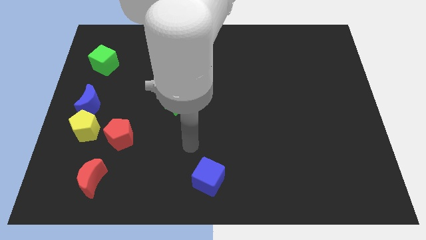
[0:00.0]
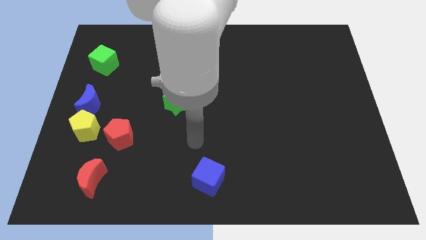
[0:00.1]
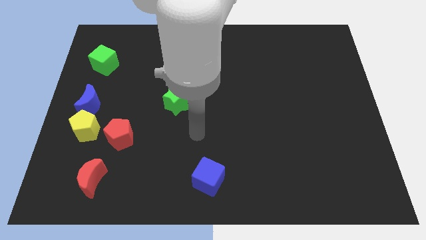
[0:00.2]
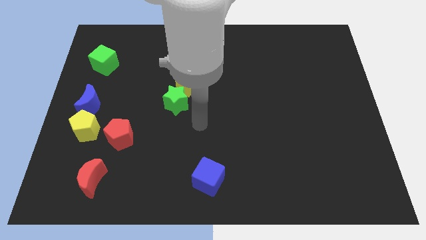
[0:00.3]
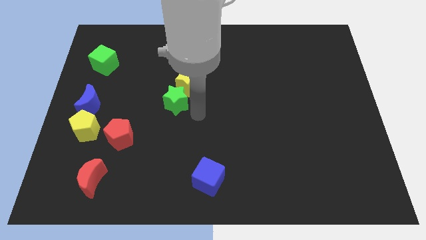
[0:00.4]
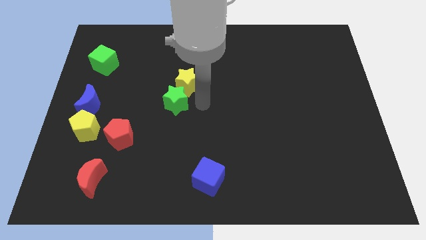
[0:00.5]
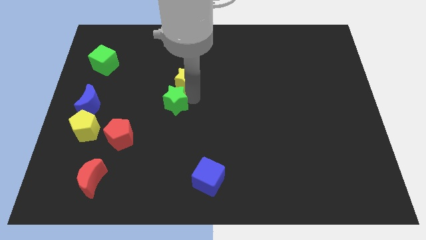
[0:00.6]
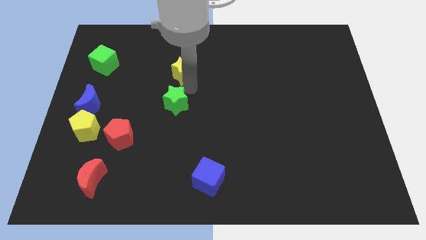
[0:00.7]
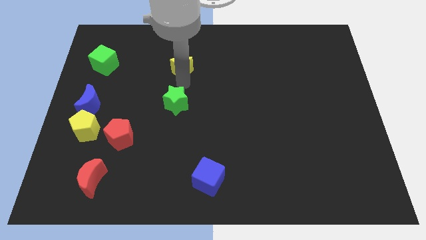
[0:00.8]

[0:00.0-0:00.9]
move the green star away from the yellow star

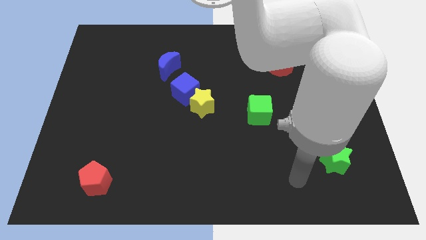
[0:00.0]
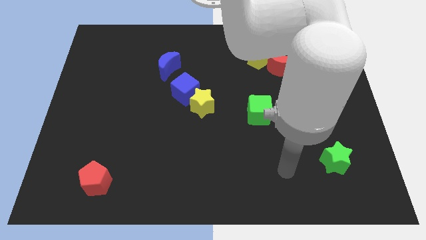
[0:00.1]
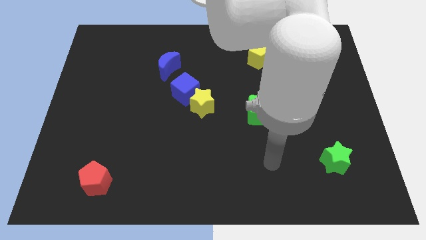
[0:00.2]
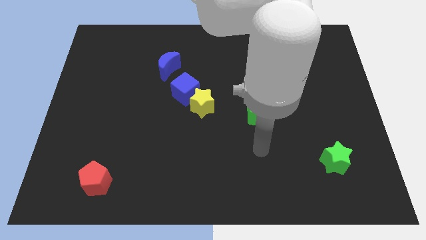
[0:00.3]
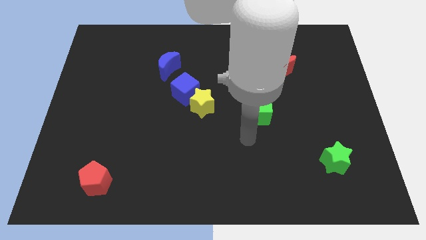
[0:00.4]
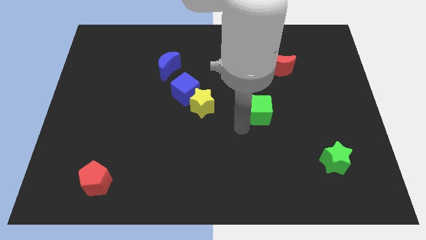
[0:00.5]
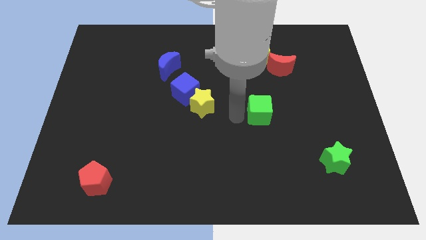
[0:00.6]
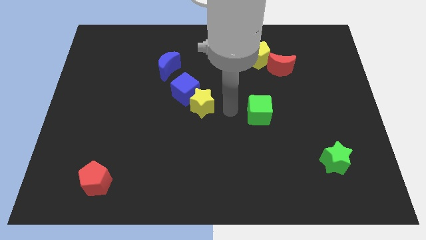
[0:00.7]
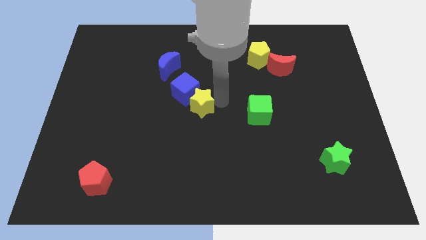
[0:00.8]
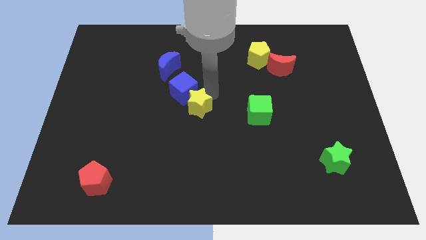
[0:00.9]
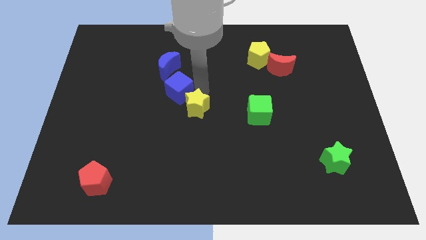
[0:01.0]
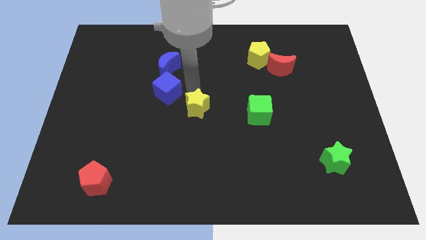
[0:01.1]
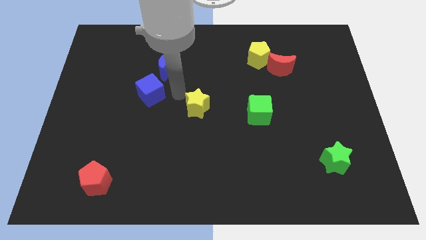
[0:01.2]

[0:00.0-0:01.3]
move the yellow star away from the blue cube

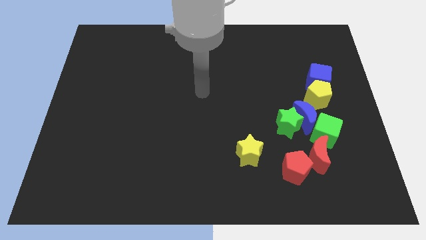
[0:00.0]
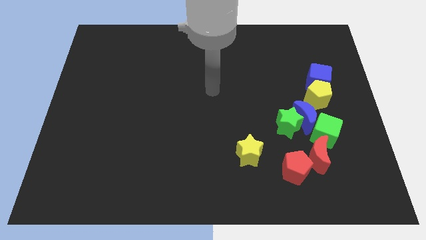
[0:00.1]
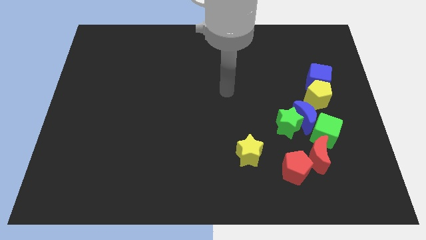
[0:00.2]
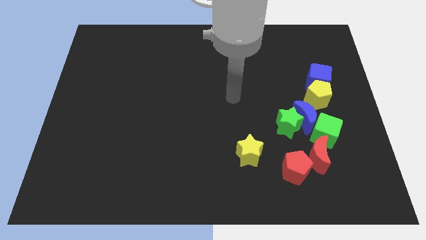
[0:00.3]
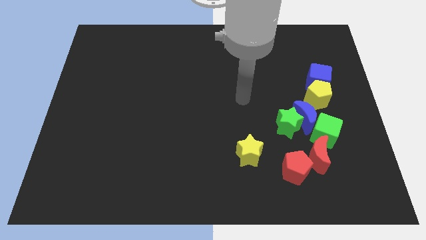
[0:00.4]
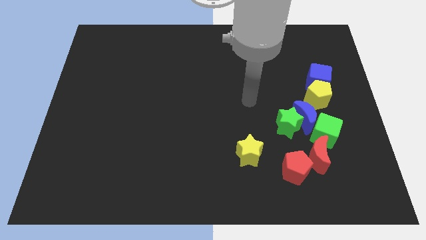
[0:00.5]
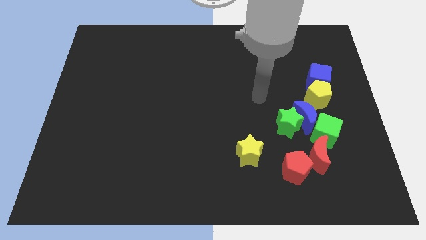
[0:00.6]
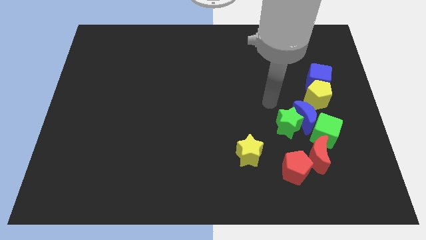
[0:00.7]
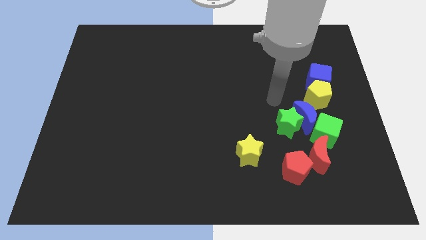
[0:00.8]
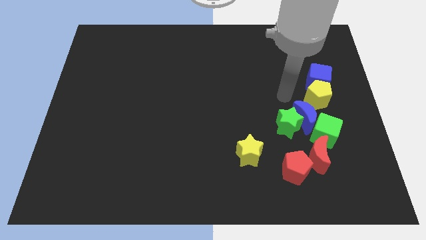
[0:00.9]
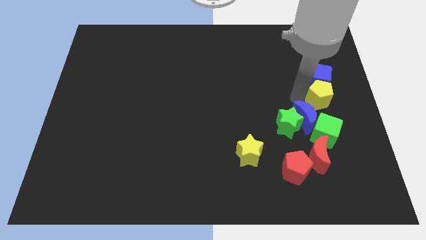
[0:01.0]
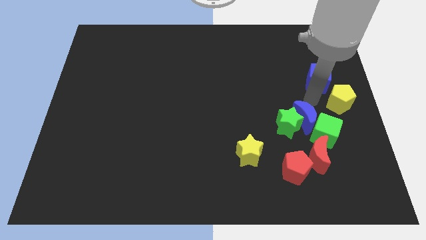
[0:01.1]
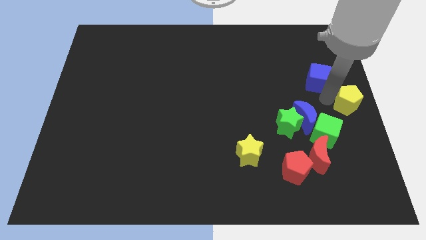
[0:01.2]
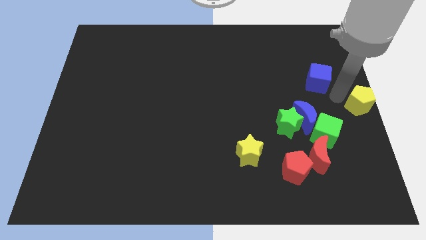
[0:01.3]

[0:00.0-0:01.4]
separate the blue cube from the yellow pentagon

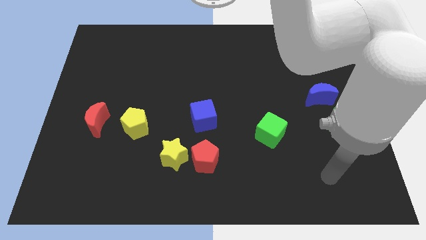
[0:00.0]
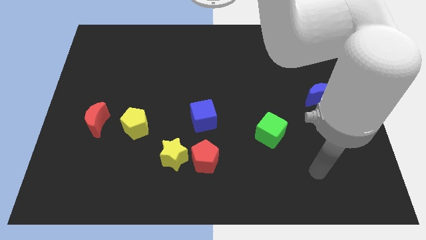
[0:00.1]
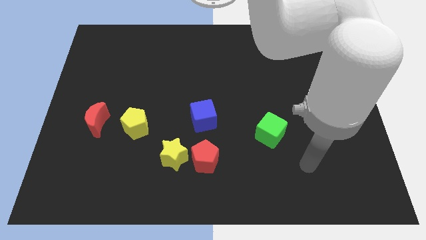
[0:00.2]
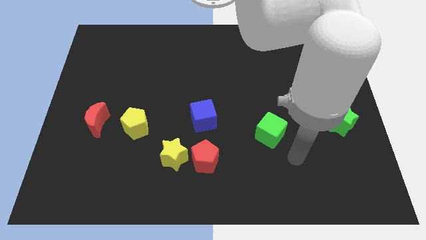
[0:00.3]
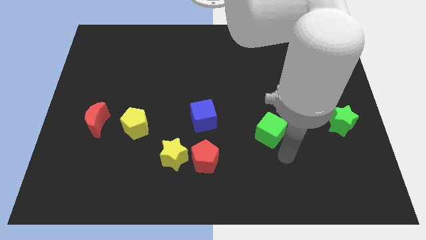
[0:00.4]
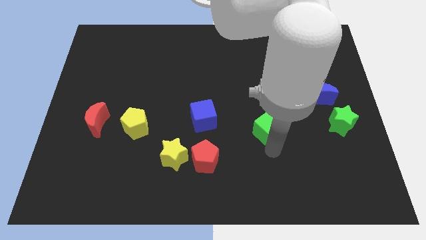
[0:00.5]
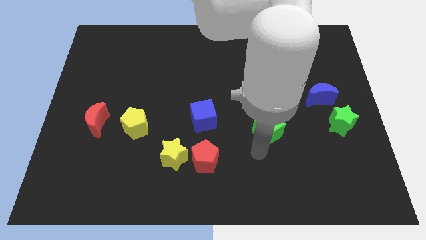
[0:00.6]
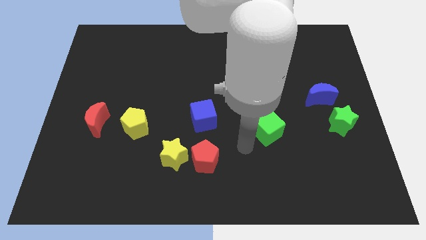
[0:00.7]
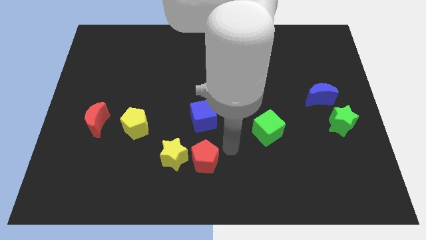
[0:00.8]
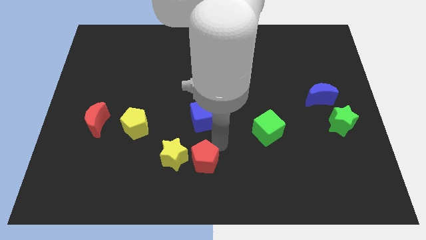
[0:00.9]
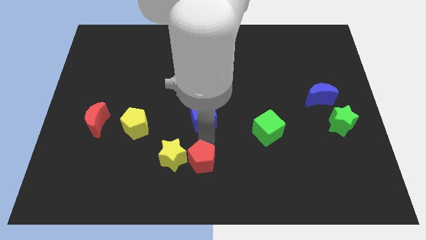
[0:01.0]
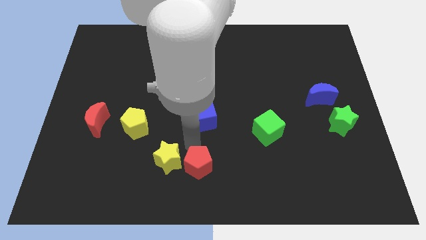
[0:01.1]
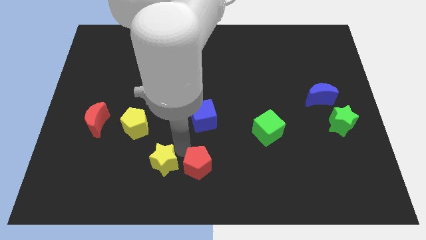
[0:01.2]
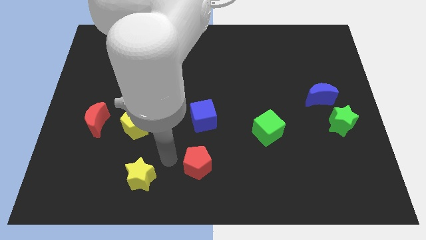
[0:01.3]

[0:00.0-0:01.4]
pull the red pentagon apart from the yellow star

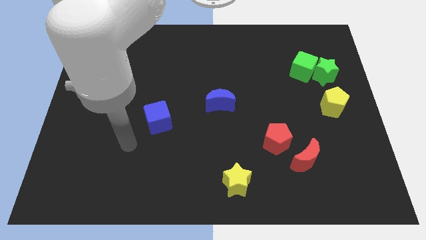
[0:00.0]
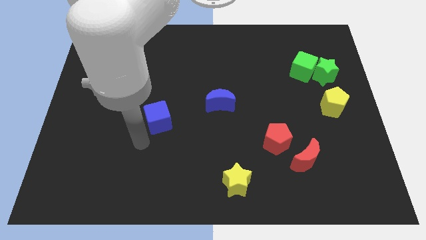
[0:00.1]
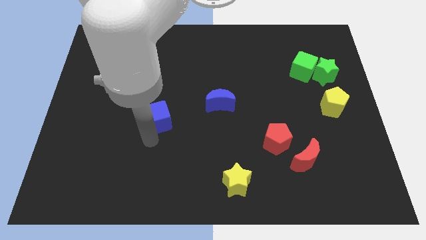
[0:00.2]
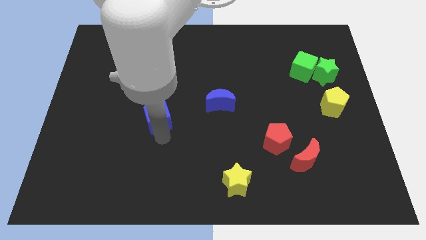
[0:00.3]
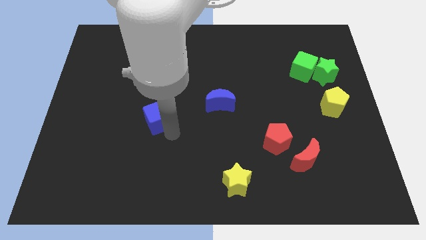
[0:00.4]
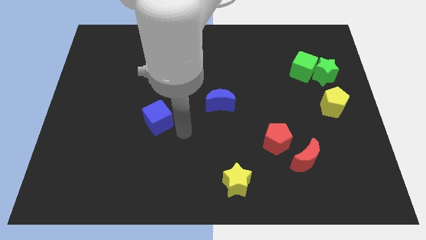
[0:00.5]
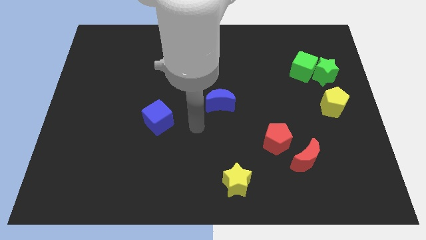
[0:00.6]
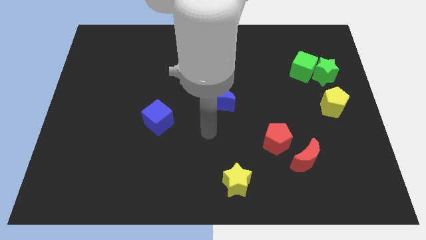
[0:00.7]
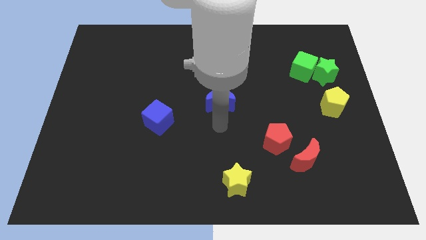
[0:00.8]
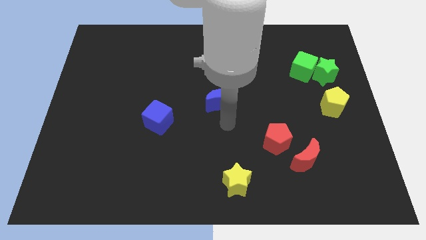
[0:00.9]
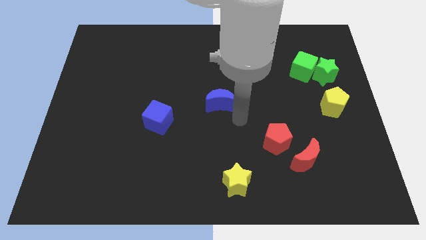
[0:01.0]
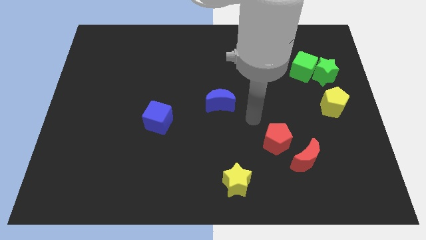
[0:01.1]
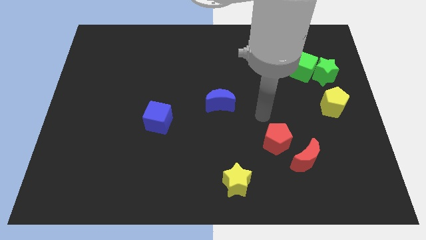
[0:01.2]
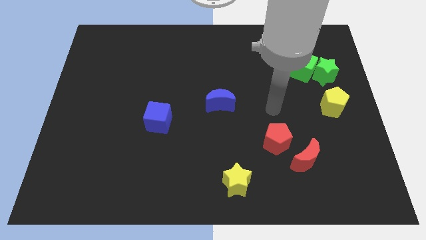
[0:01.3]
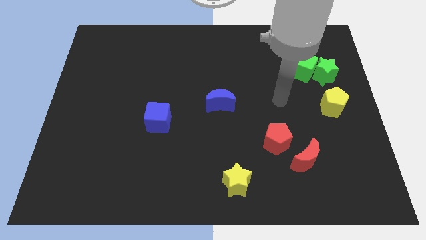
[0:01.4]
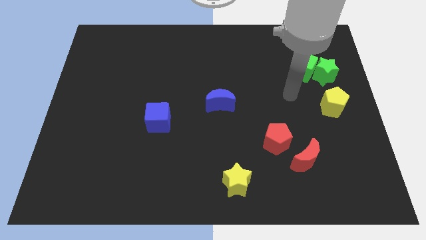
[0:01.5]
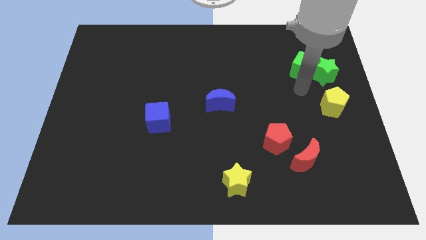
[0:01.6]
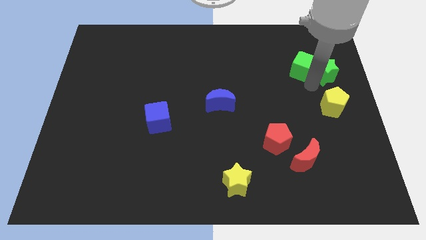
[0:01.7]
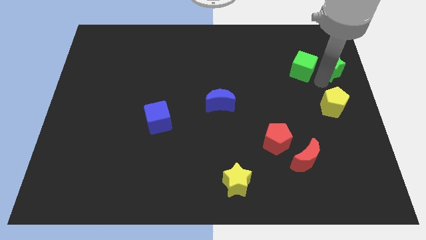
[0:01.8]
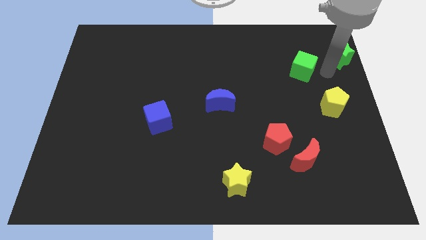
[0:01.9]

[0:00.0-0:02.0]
move the green cube away from the green star

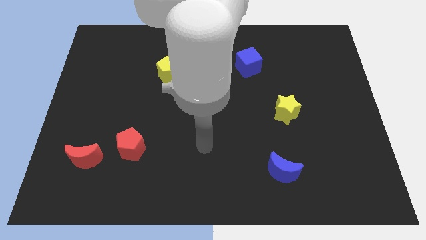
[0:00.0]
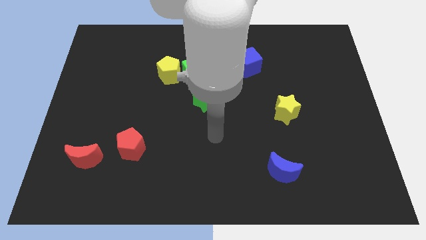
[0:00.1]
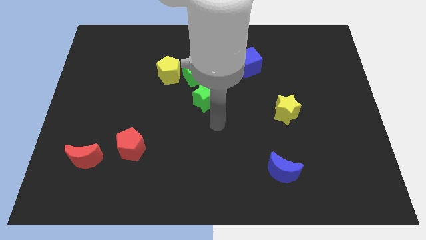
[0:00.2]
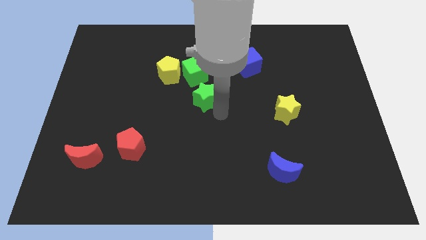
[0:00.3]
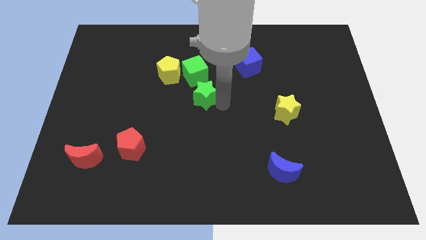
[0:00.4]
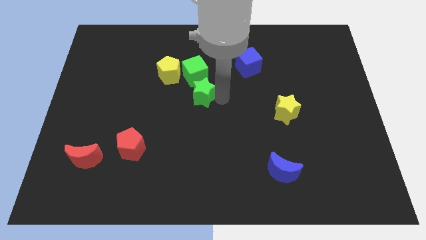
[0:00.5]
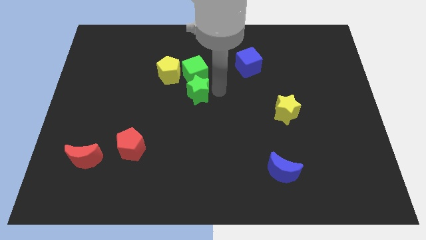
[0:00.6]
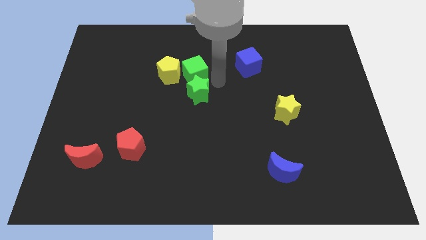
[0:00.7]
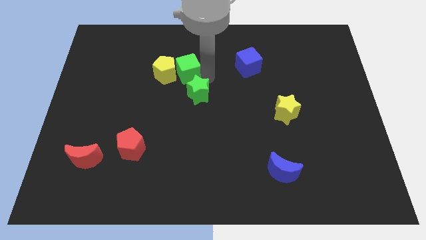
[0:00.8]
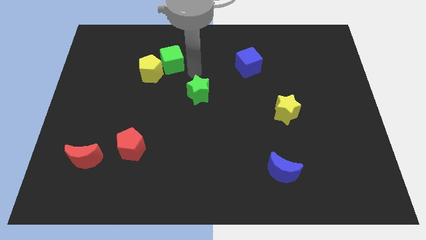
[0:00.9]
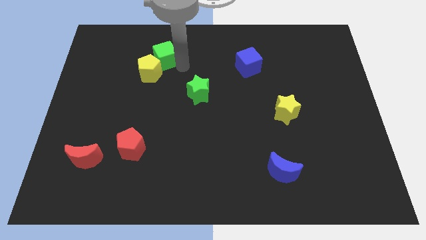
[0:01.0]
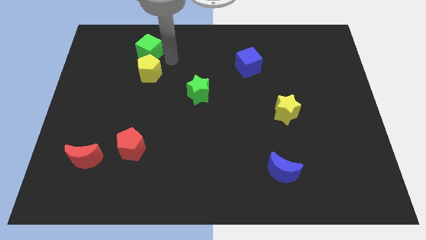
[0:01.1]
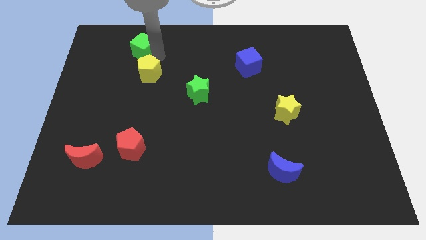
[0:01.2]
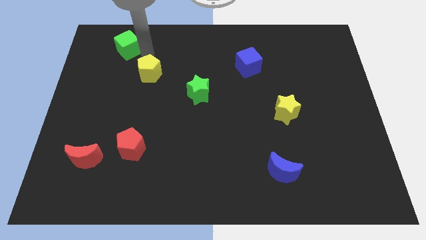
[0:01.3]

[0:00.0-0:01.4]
separate the yellow pentagon from the green cube

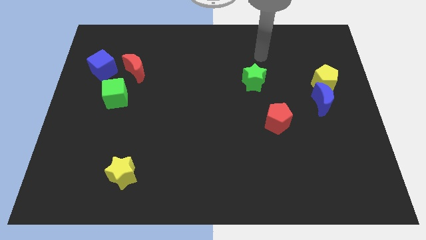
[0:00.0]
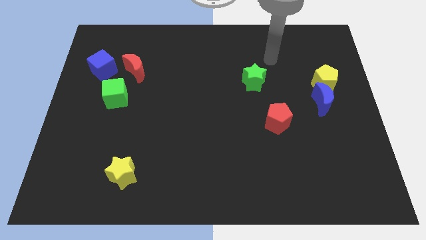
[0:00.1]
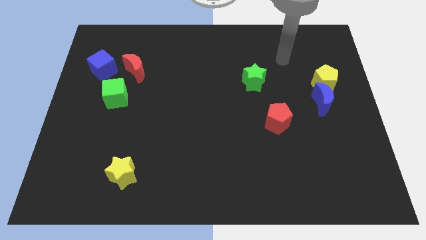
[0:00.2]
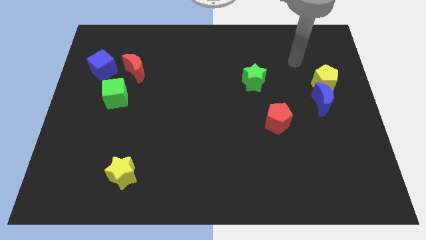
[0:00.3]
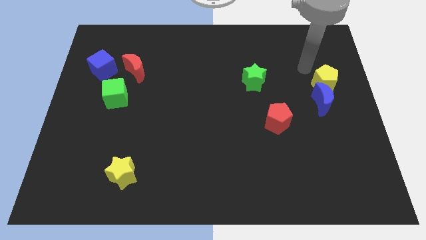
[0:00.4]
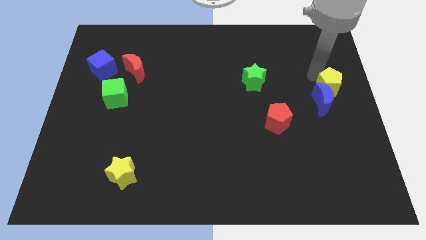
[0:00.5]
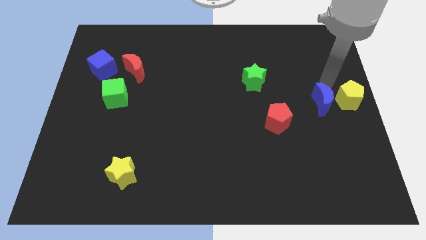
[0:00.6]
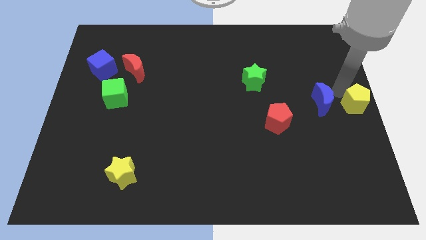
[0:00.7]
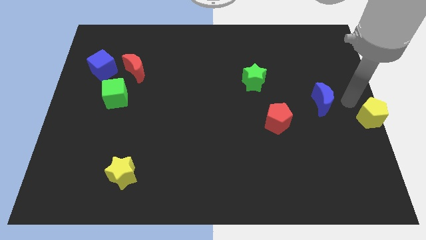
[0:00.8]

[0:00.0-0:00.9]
separate the blue moon from the yellow pentagon

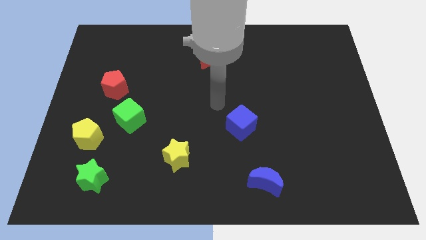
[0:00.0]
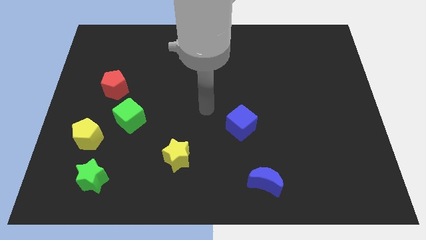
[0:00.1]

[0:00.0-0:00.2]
move the green cube away from the yellow pentagon
